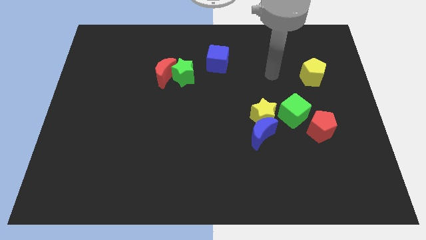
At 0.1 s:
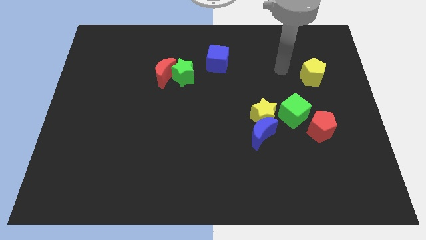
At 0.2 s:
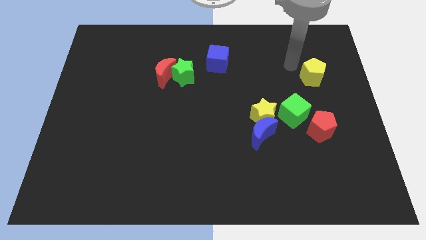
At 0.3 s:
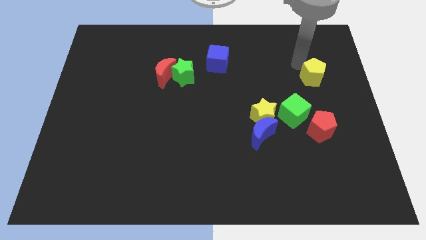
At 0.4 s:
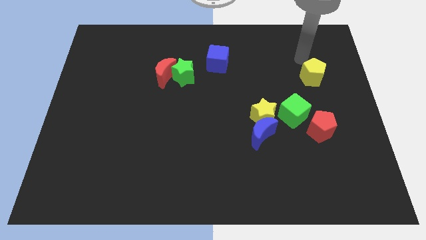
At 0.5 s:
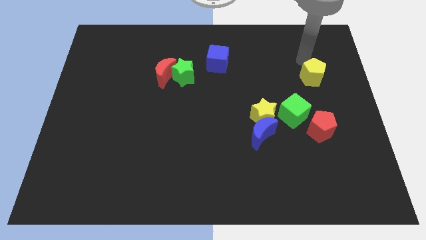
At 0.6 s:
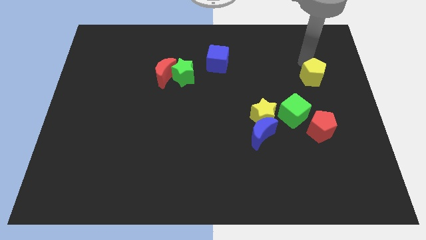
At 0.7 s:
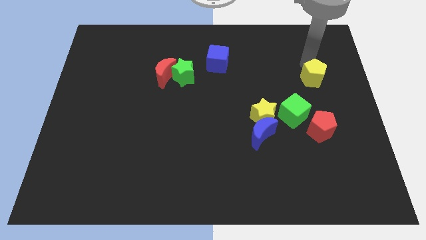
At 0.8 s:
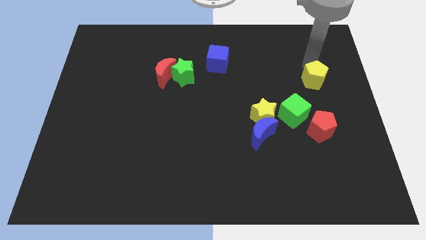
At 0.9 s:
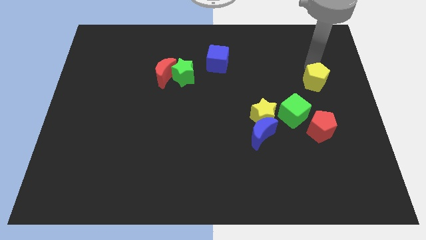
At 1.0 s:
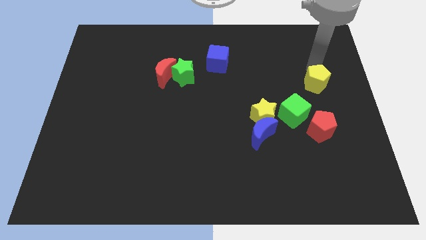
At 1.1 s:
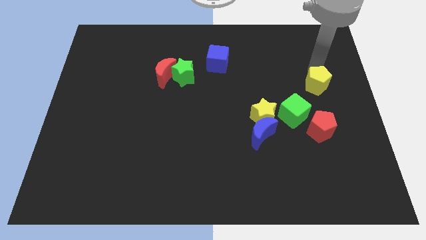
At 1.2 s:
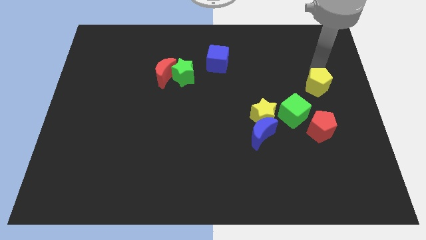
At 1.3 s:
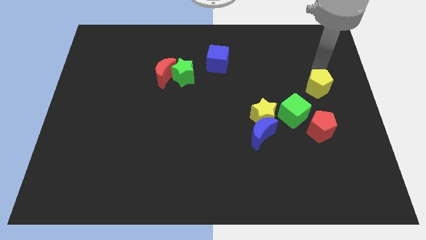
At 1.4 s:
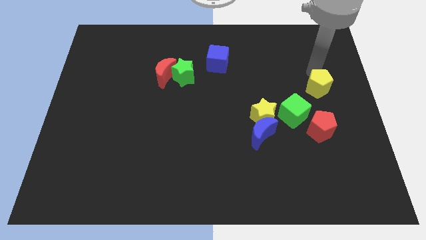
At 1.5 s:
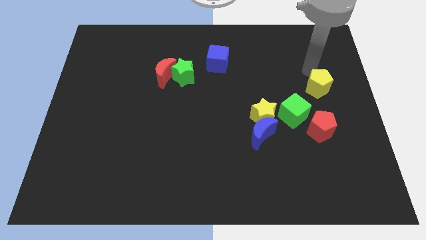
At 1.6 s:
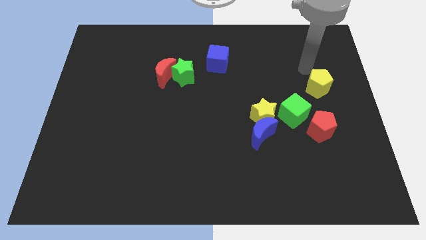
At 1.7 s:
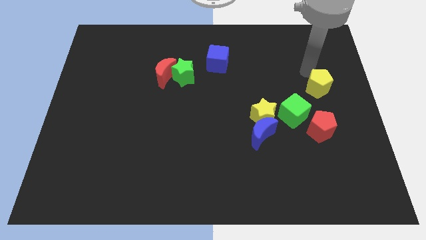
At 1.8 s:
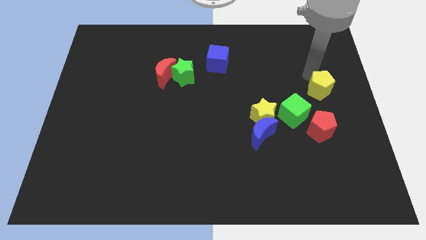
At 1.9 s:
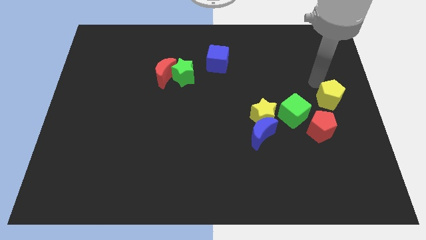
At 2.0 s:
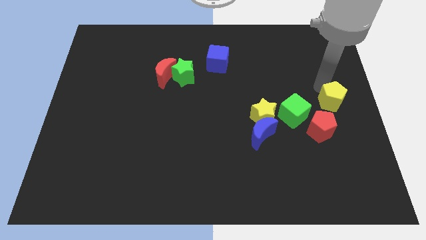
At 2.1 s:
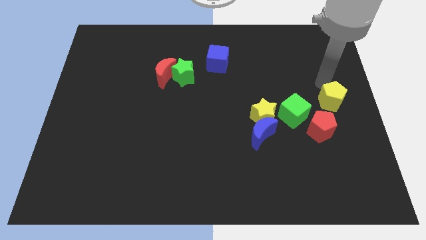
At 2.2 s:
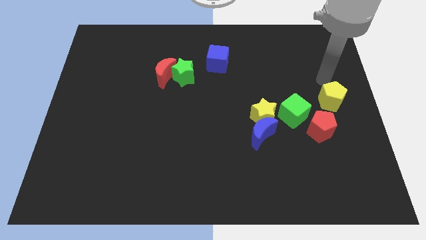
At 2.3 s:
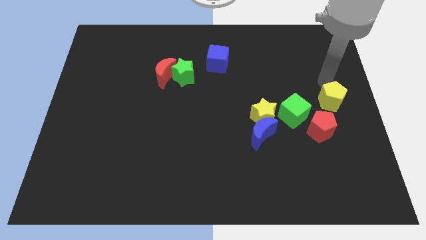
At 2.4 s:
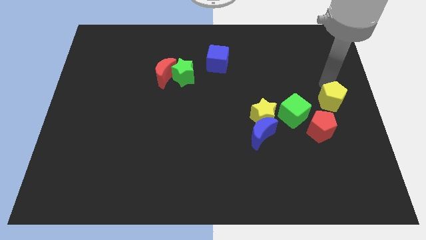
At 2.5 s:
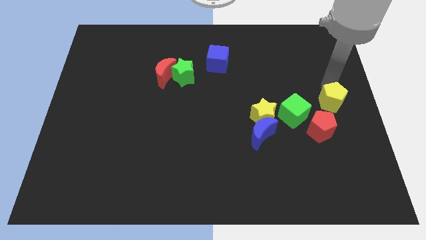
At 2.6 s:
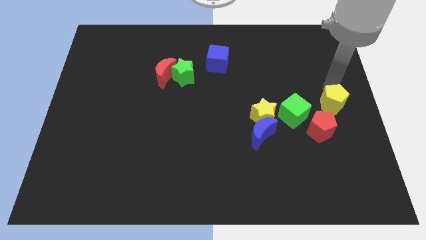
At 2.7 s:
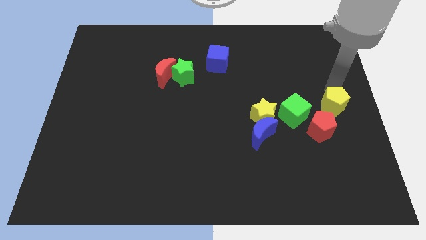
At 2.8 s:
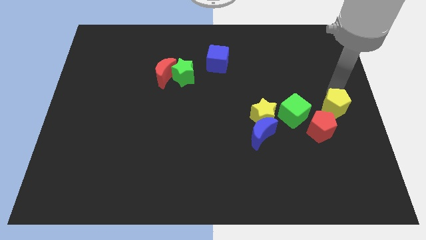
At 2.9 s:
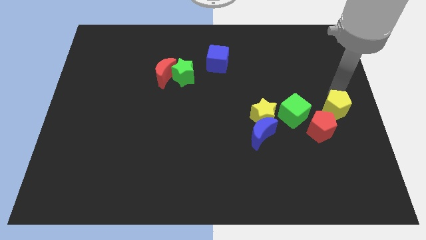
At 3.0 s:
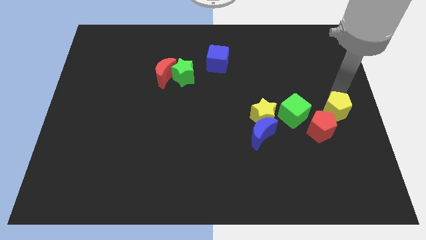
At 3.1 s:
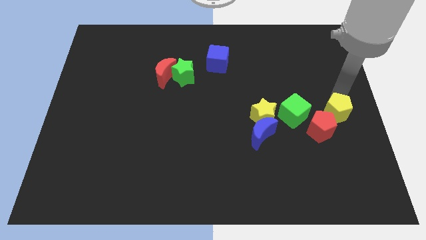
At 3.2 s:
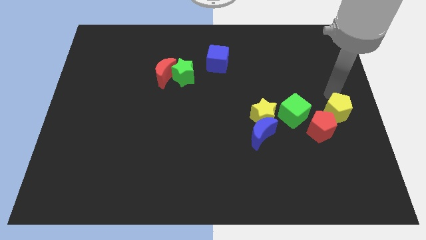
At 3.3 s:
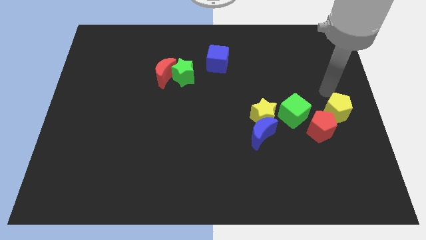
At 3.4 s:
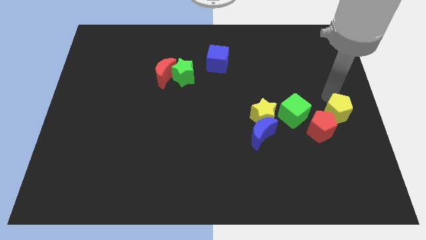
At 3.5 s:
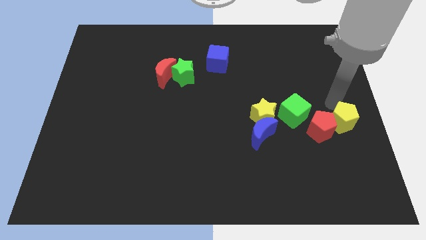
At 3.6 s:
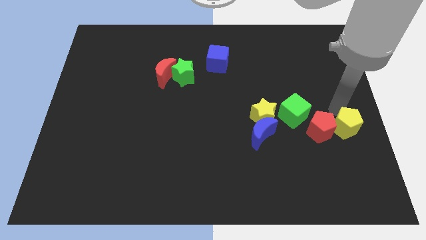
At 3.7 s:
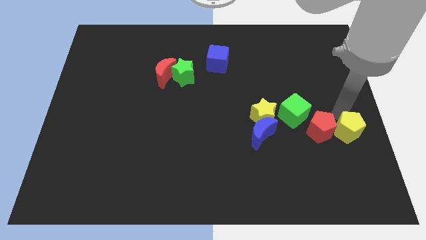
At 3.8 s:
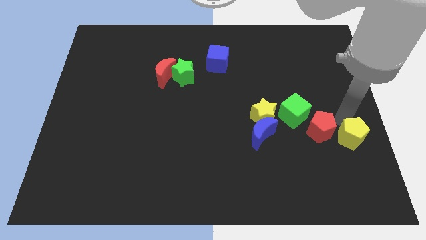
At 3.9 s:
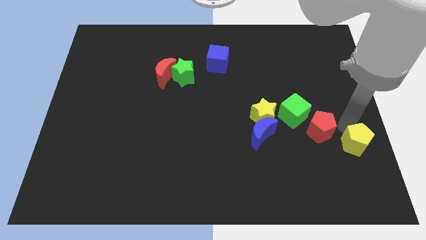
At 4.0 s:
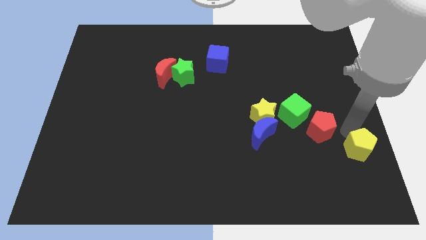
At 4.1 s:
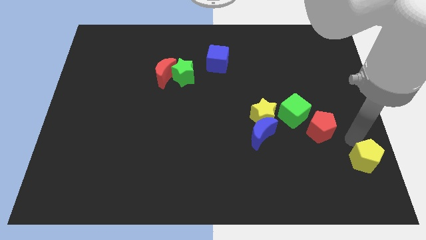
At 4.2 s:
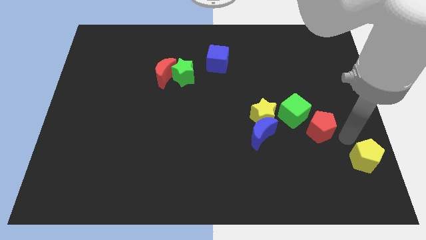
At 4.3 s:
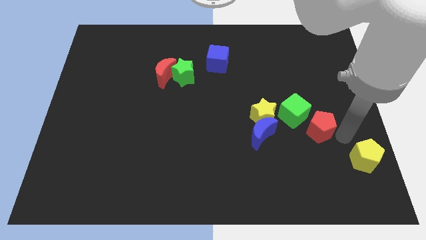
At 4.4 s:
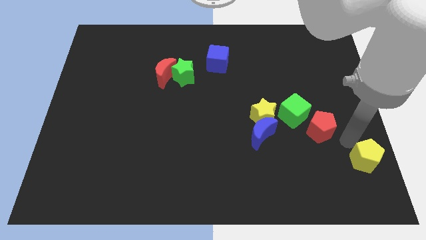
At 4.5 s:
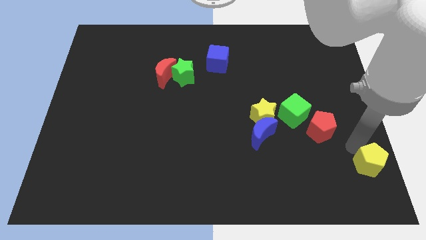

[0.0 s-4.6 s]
push the yellow pentagon to the bottom right of the board

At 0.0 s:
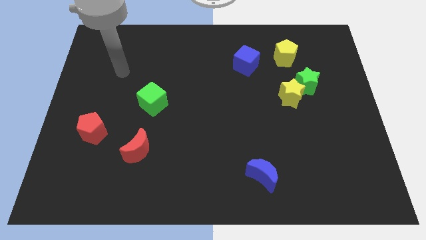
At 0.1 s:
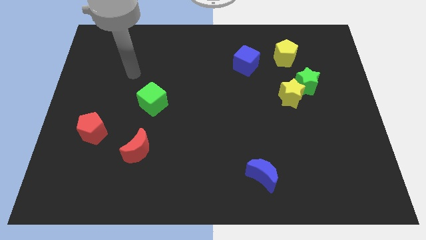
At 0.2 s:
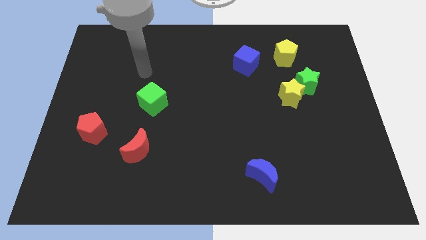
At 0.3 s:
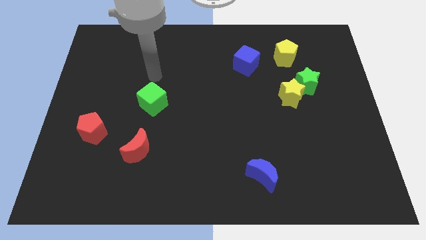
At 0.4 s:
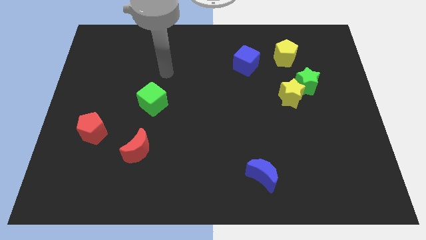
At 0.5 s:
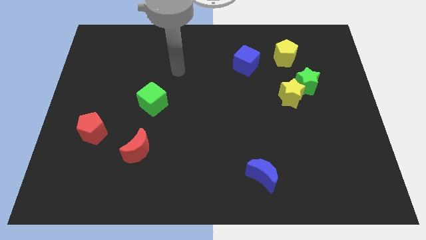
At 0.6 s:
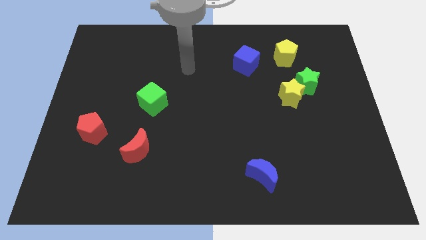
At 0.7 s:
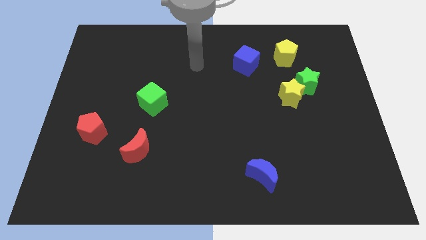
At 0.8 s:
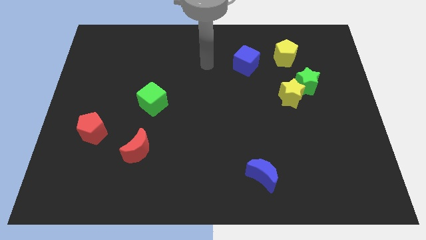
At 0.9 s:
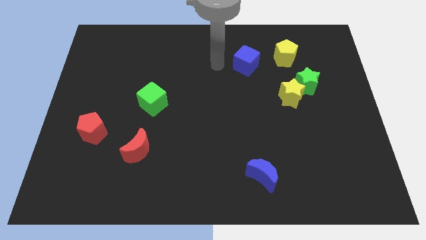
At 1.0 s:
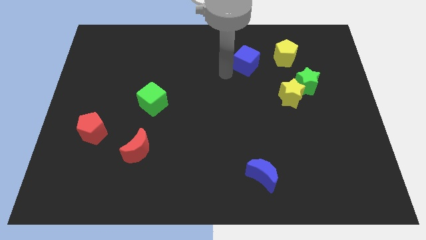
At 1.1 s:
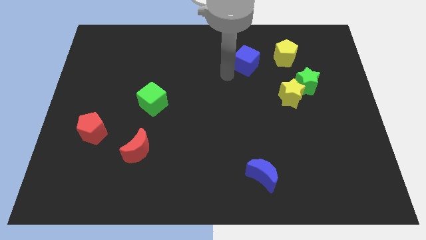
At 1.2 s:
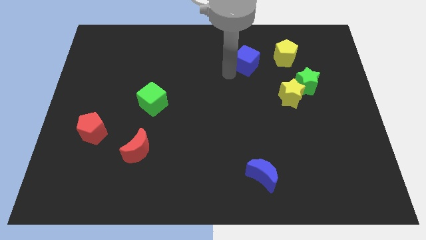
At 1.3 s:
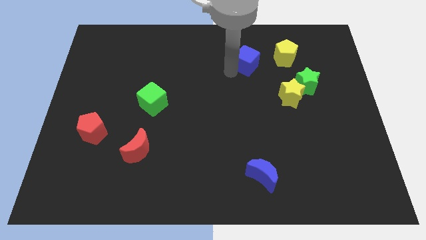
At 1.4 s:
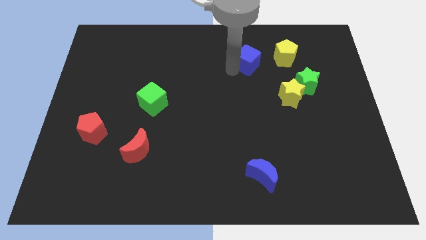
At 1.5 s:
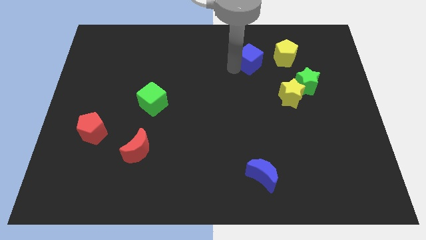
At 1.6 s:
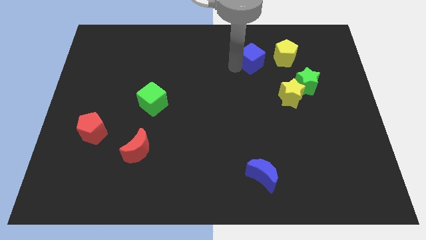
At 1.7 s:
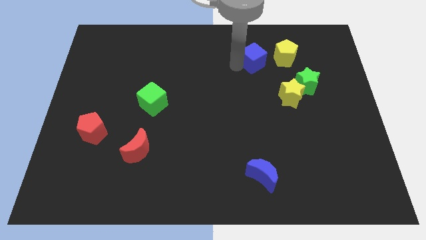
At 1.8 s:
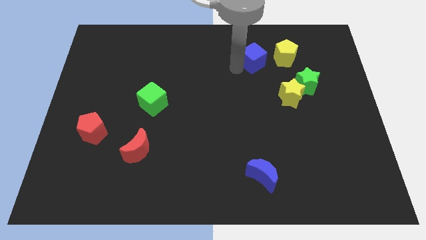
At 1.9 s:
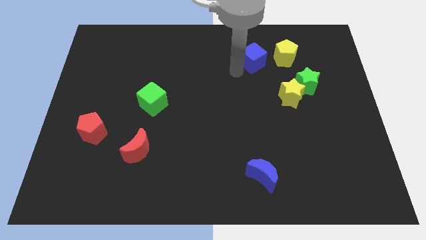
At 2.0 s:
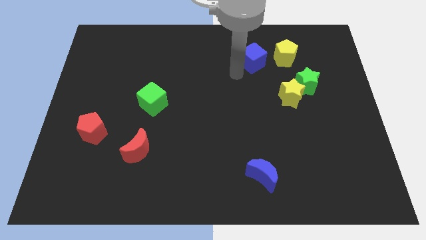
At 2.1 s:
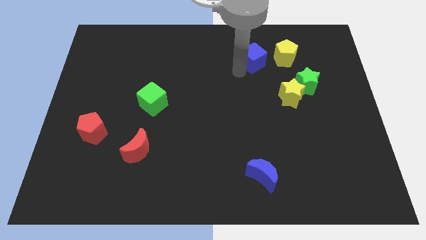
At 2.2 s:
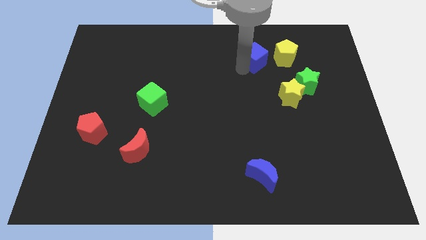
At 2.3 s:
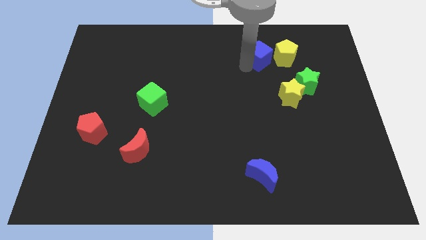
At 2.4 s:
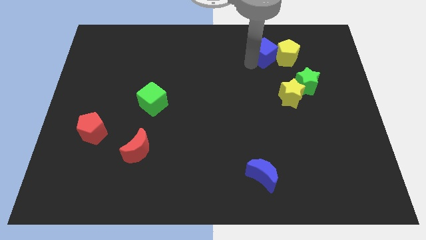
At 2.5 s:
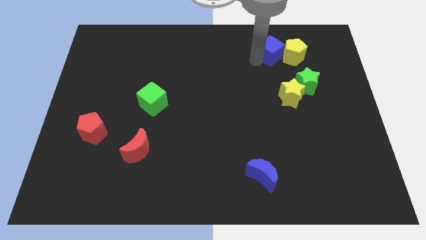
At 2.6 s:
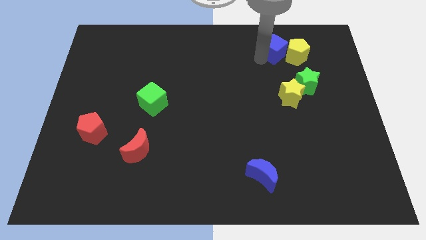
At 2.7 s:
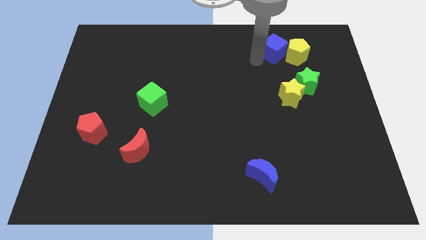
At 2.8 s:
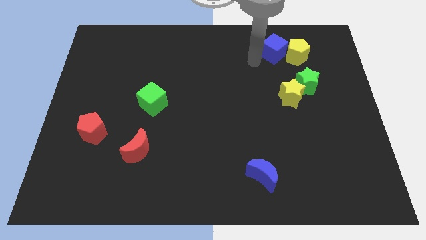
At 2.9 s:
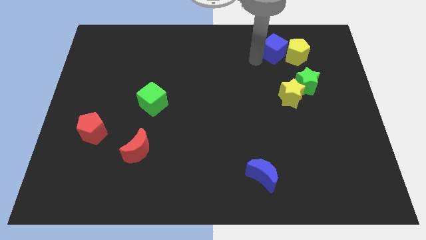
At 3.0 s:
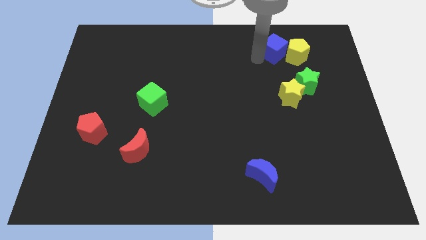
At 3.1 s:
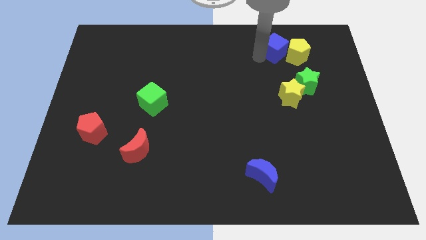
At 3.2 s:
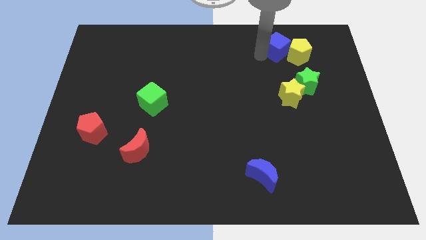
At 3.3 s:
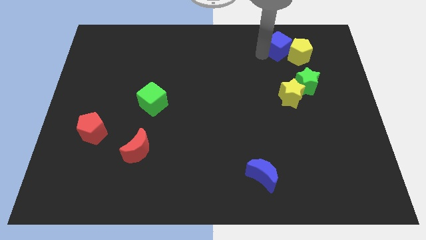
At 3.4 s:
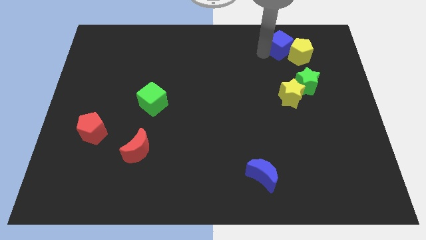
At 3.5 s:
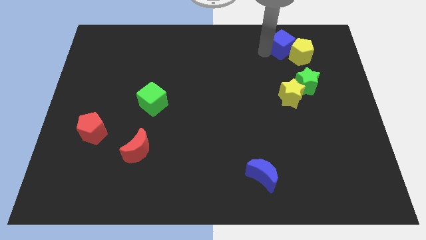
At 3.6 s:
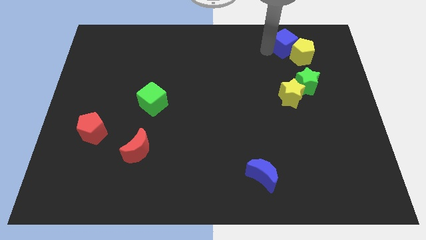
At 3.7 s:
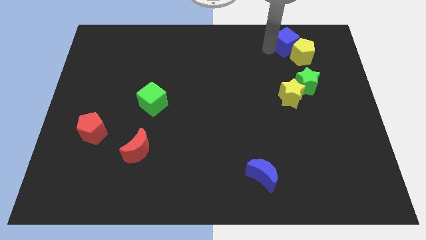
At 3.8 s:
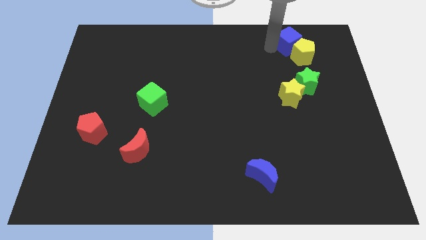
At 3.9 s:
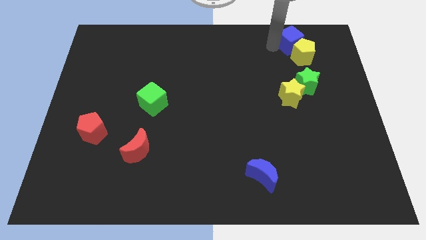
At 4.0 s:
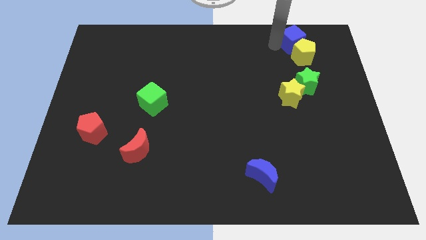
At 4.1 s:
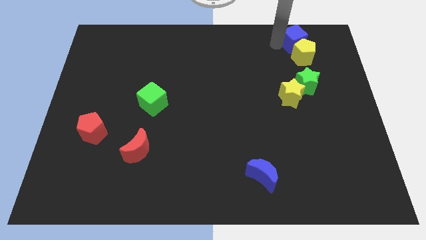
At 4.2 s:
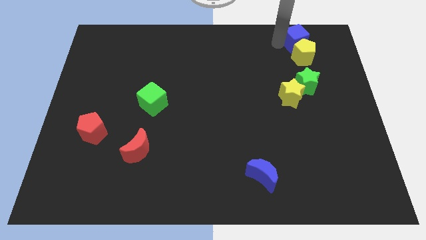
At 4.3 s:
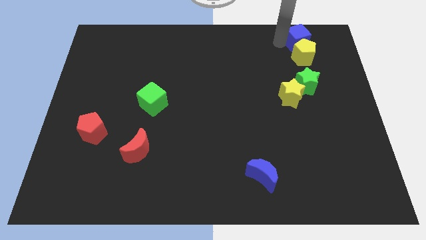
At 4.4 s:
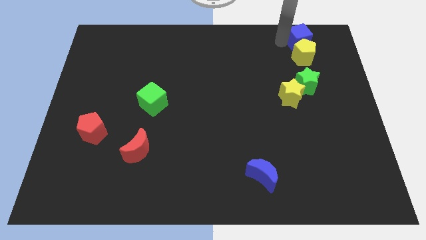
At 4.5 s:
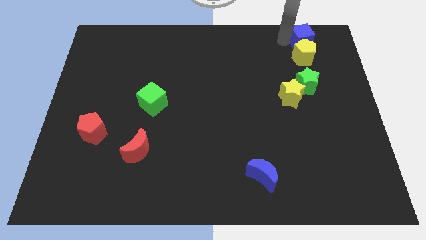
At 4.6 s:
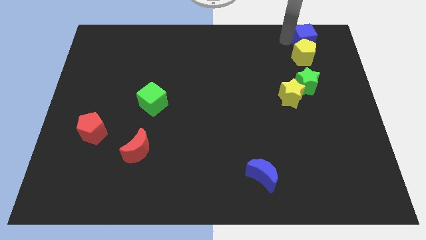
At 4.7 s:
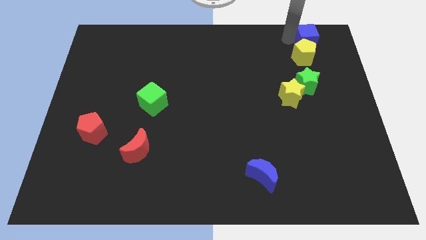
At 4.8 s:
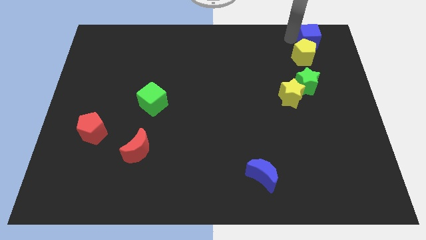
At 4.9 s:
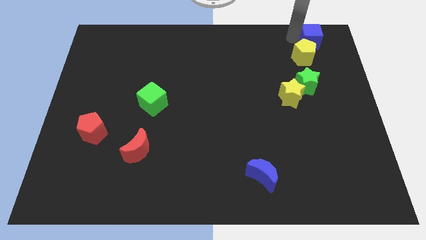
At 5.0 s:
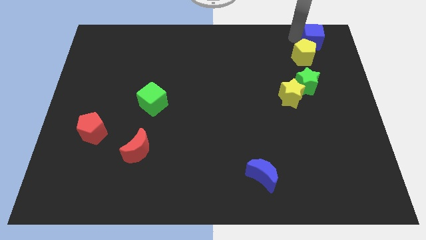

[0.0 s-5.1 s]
push the blue cube to the top right of the board
